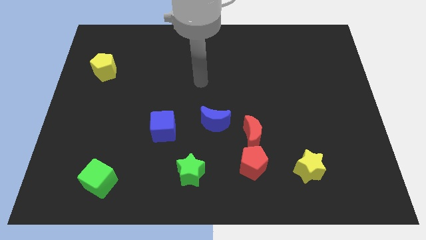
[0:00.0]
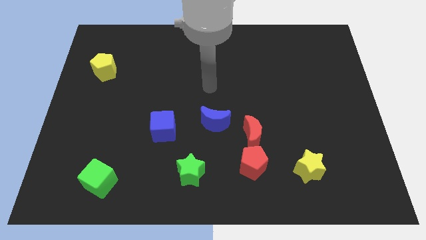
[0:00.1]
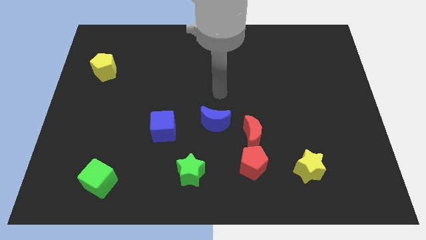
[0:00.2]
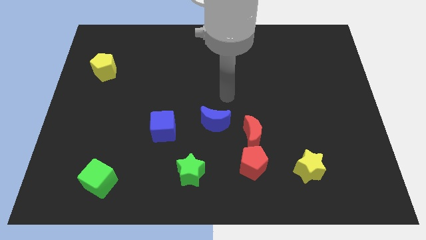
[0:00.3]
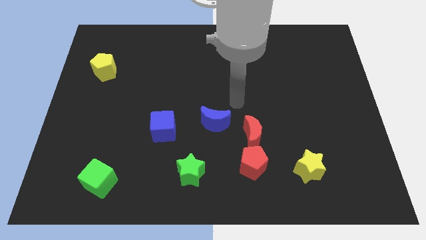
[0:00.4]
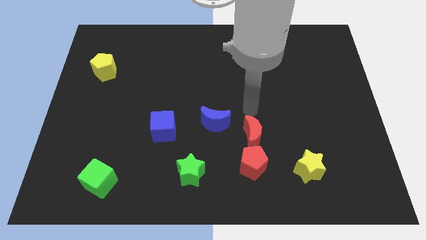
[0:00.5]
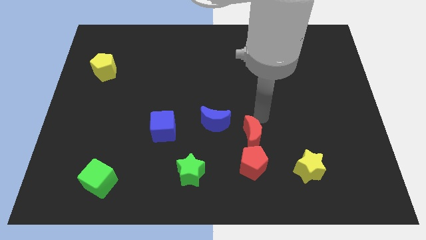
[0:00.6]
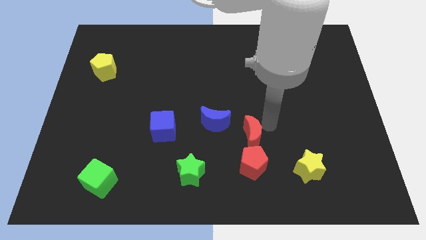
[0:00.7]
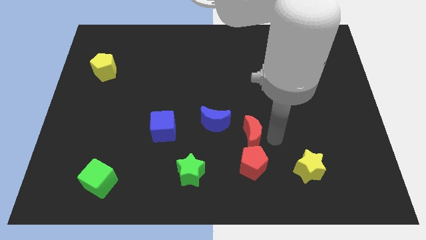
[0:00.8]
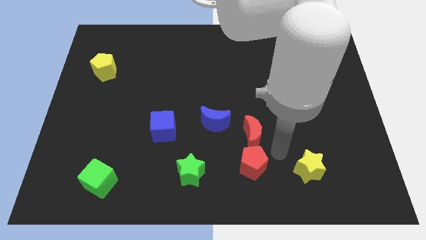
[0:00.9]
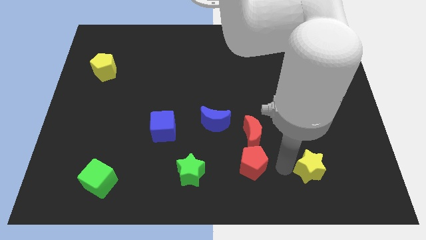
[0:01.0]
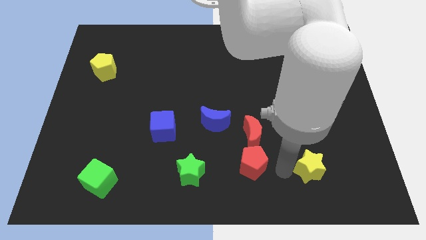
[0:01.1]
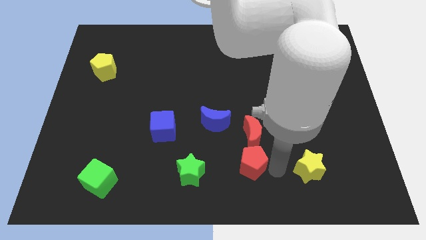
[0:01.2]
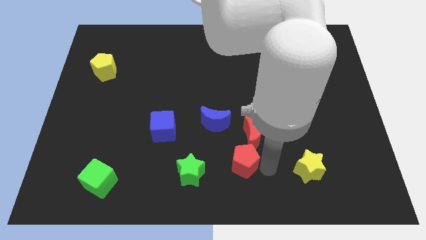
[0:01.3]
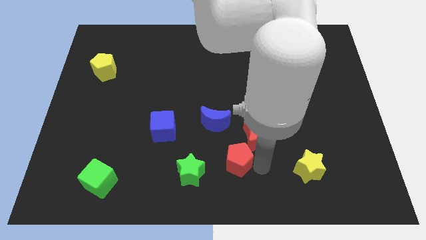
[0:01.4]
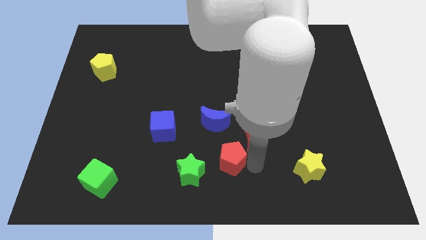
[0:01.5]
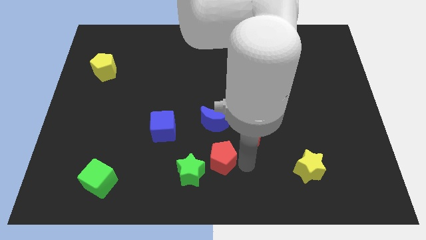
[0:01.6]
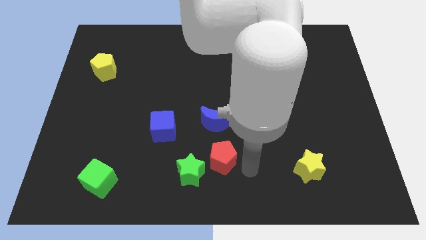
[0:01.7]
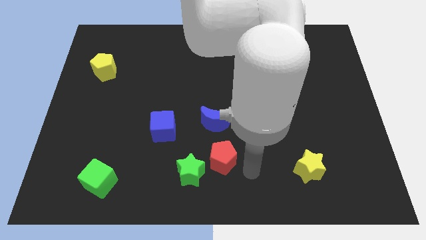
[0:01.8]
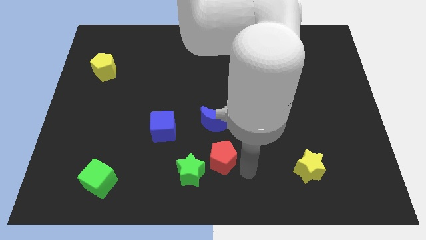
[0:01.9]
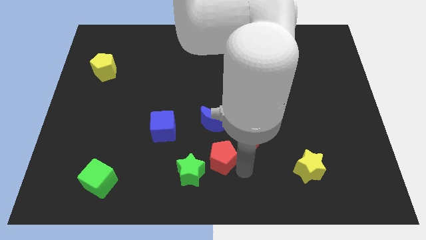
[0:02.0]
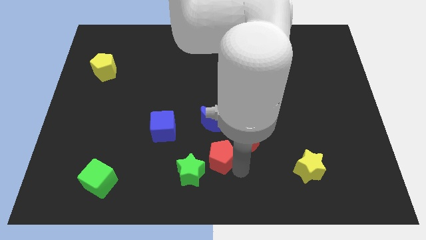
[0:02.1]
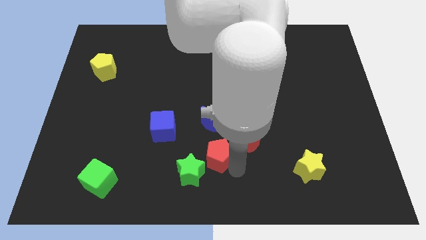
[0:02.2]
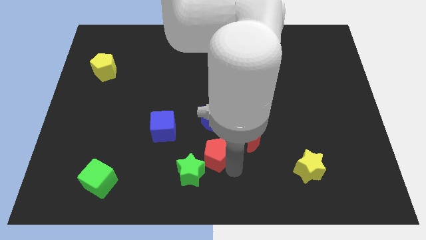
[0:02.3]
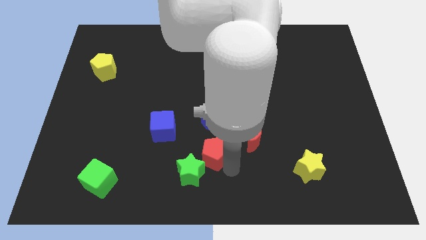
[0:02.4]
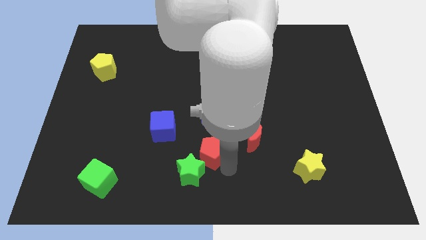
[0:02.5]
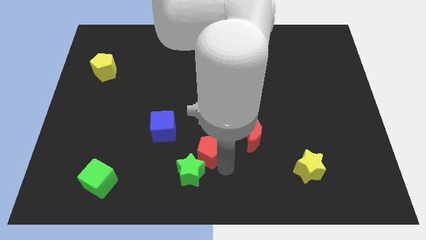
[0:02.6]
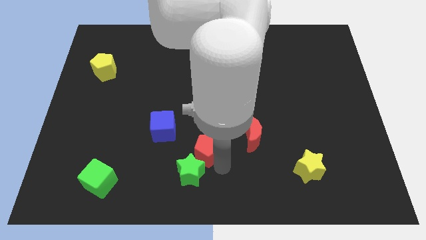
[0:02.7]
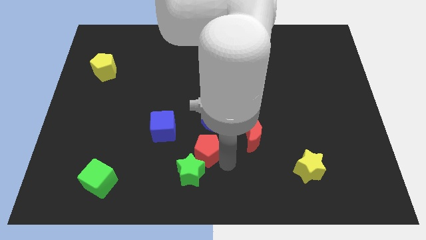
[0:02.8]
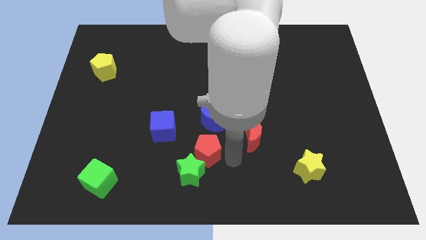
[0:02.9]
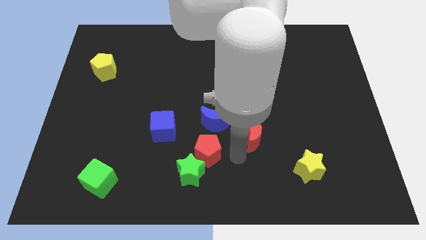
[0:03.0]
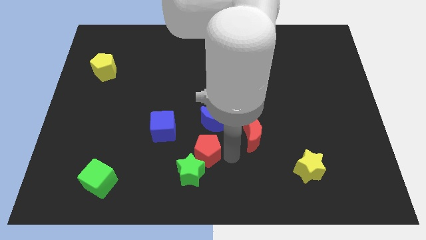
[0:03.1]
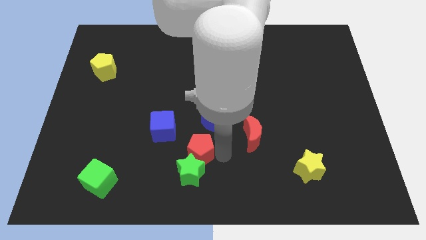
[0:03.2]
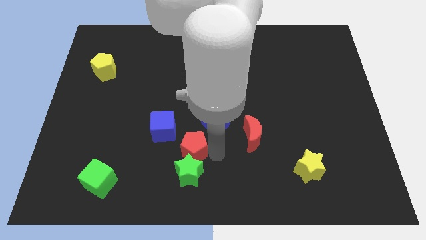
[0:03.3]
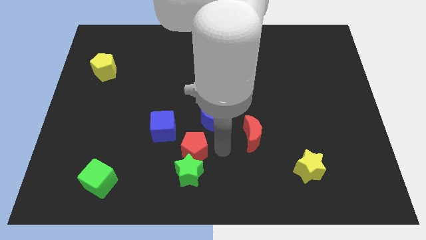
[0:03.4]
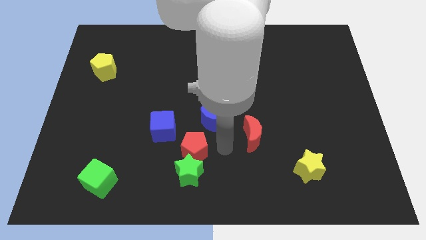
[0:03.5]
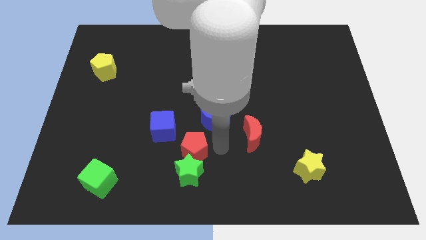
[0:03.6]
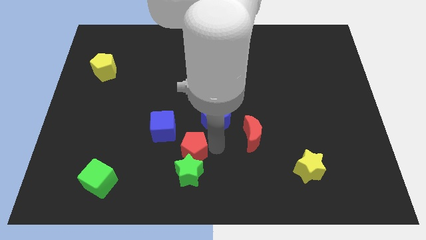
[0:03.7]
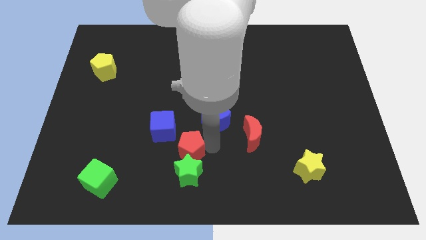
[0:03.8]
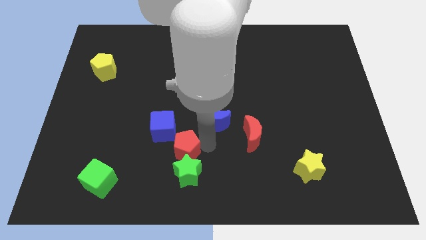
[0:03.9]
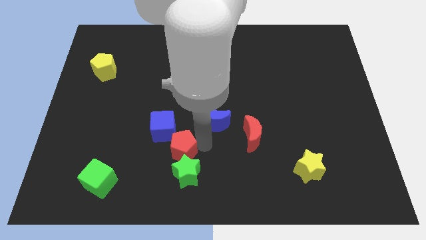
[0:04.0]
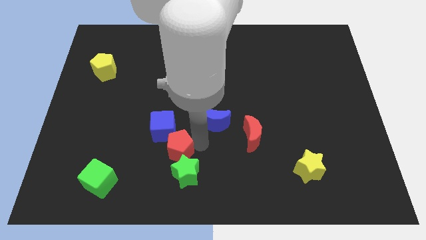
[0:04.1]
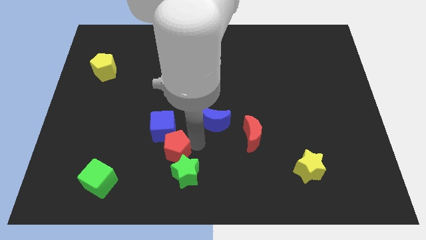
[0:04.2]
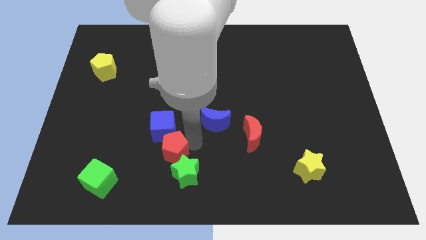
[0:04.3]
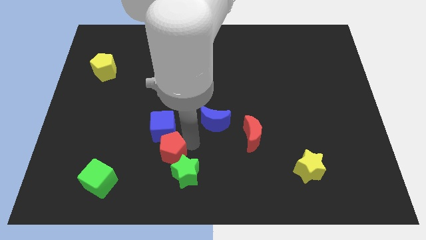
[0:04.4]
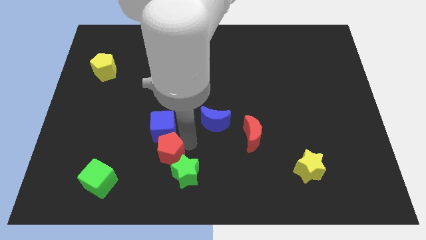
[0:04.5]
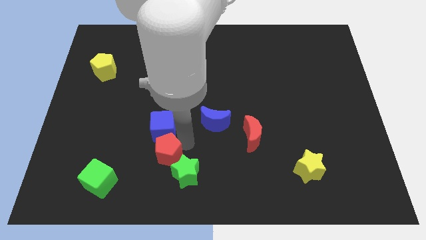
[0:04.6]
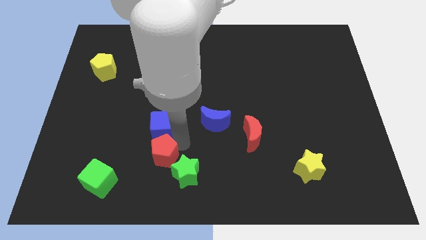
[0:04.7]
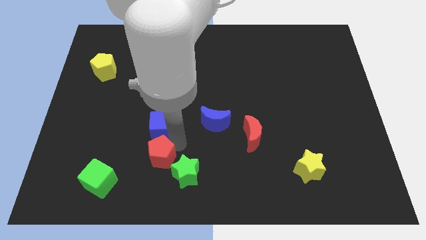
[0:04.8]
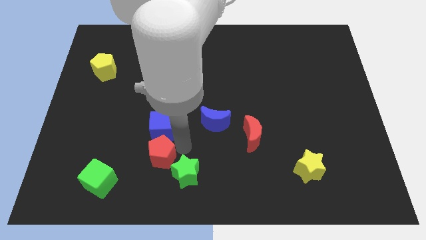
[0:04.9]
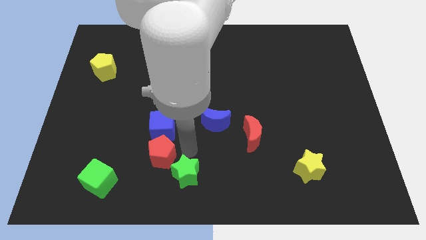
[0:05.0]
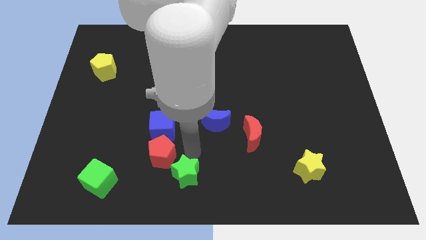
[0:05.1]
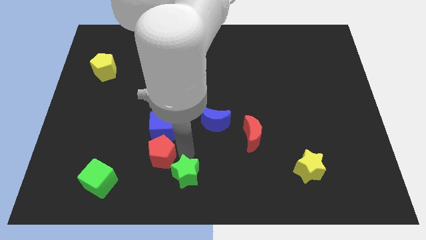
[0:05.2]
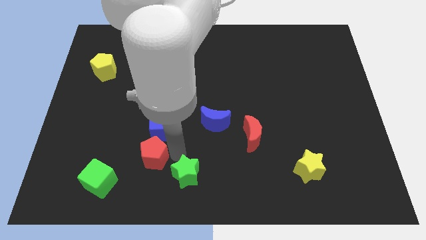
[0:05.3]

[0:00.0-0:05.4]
push the red pentagon to the top right side of the green cube

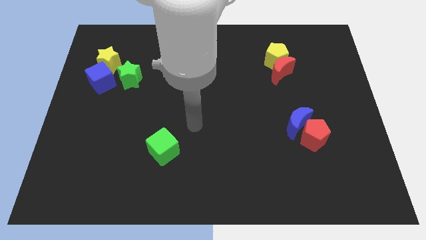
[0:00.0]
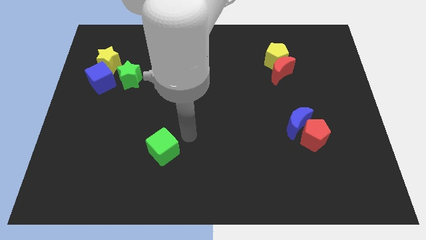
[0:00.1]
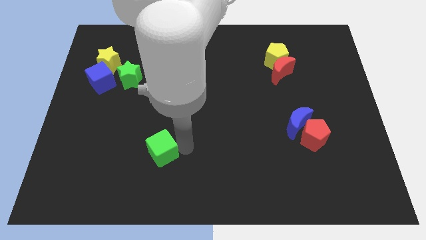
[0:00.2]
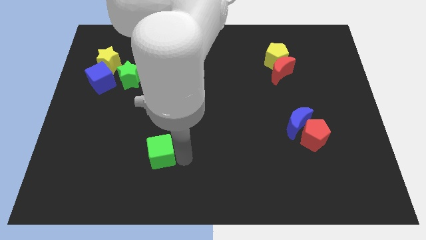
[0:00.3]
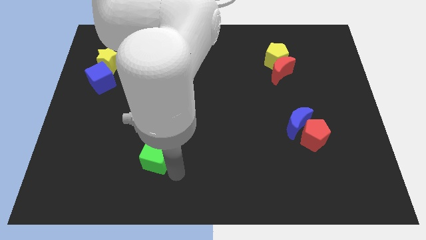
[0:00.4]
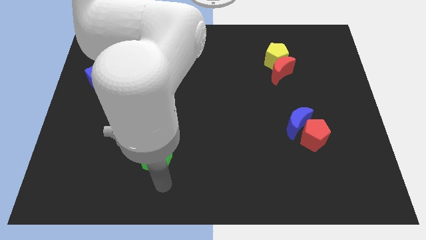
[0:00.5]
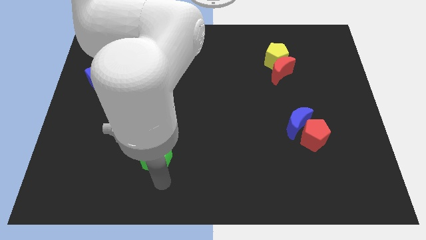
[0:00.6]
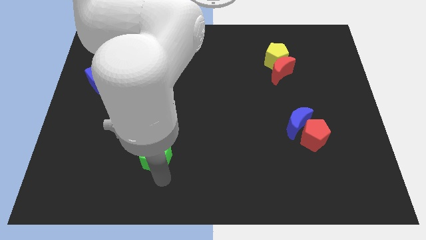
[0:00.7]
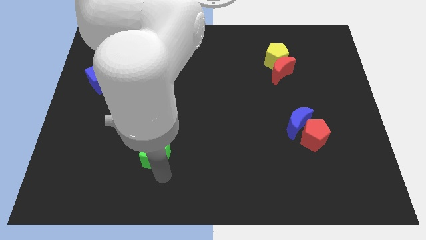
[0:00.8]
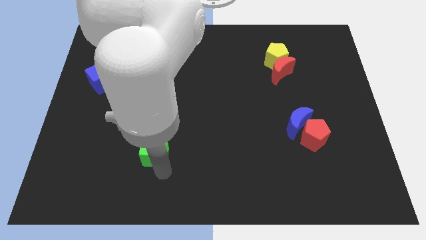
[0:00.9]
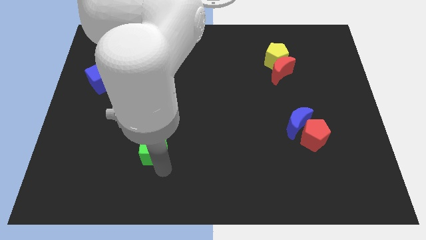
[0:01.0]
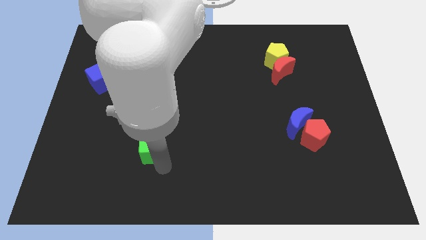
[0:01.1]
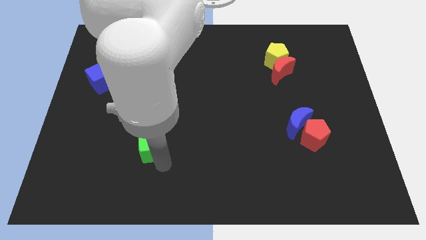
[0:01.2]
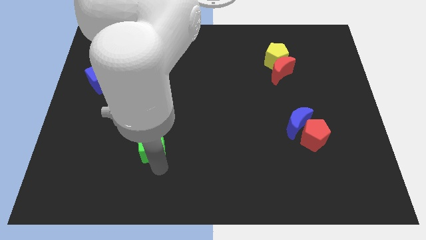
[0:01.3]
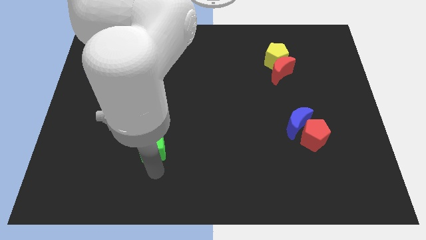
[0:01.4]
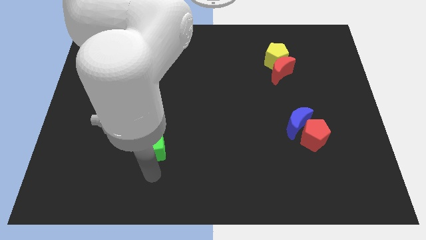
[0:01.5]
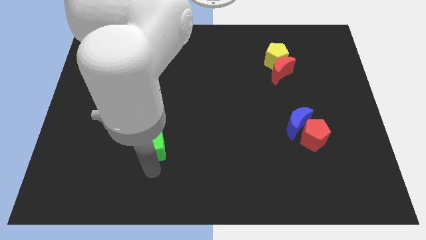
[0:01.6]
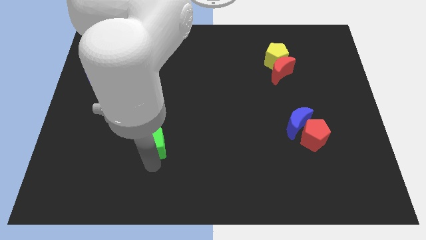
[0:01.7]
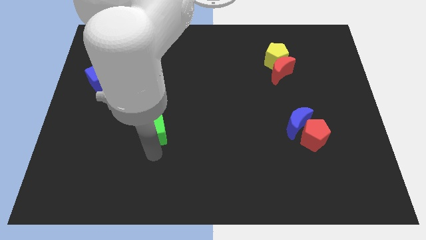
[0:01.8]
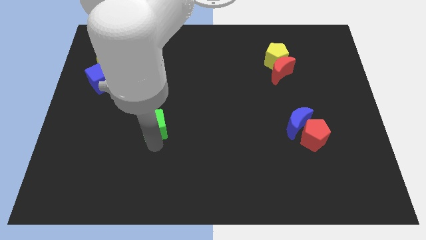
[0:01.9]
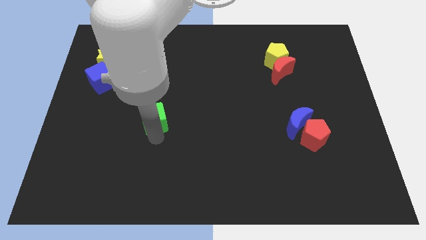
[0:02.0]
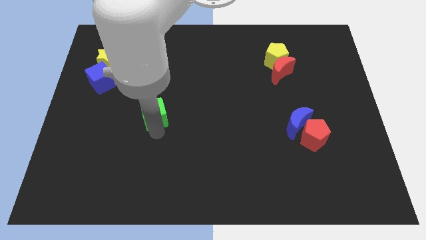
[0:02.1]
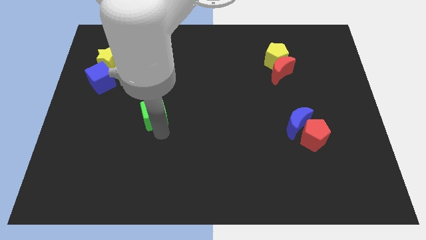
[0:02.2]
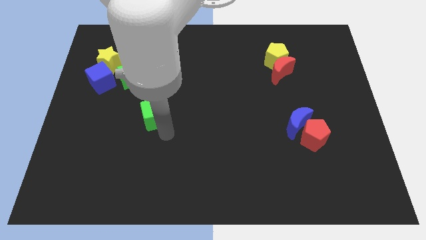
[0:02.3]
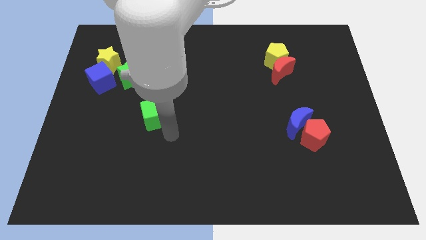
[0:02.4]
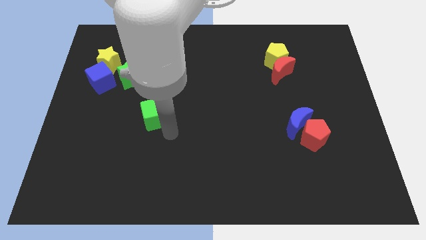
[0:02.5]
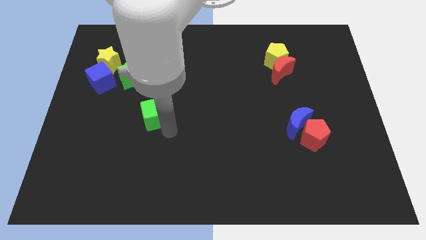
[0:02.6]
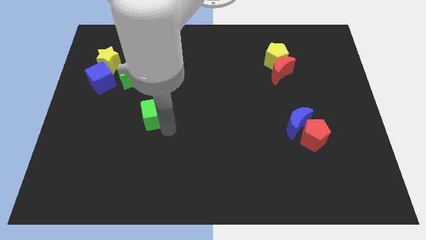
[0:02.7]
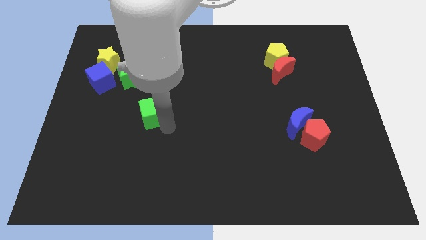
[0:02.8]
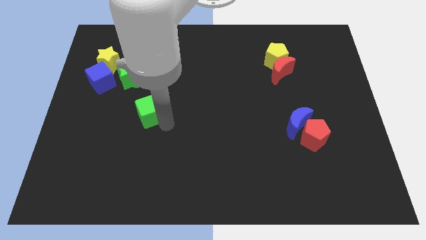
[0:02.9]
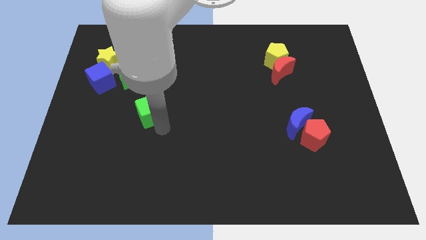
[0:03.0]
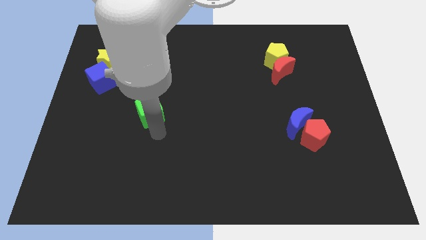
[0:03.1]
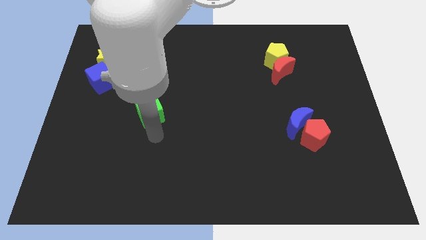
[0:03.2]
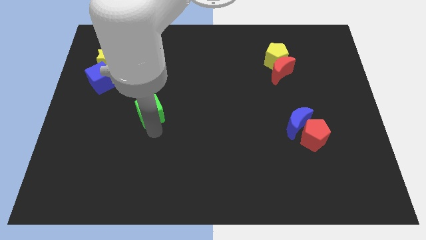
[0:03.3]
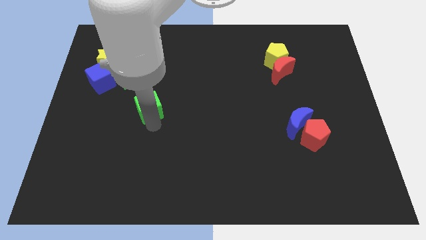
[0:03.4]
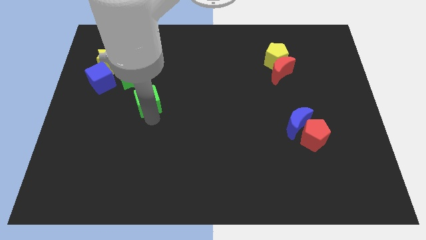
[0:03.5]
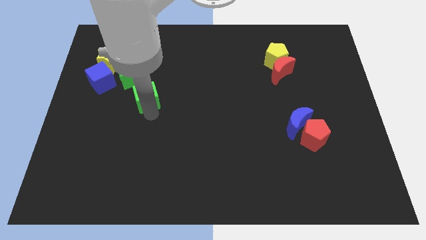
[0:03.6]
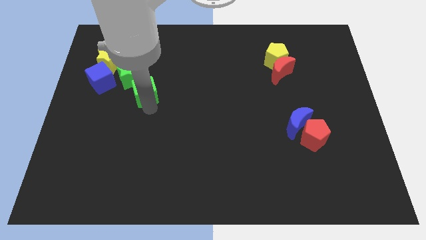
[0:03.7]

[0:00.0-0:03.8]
slide the green cube just right of the blue cube
